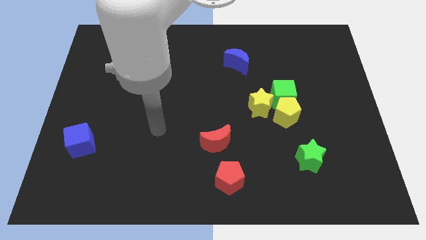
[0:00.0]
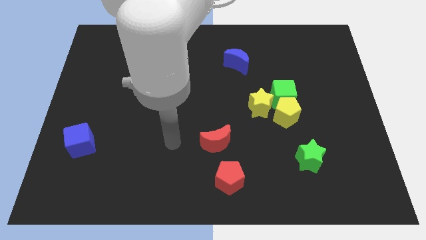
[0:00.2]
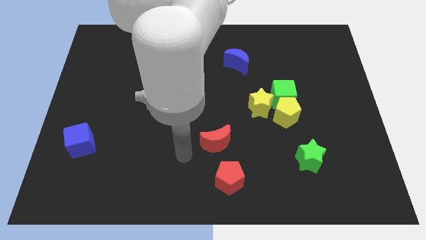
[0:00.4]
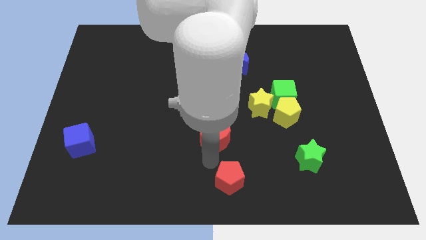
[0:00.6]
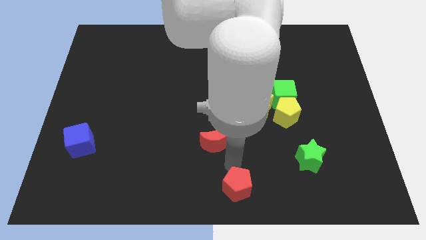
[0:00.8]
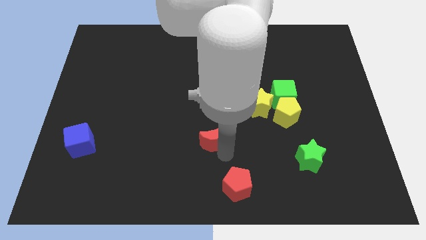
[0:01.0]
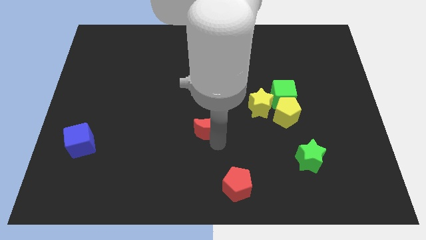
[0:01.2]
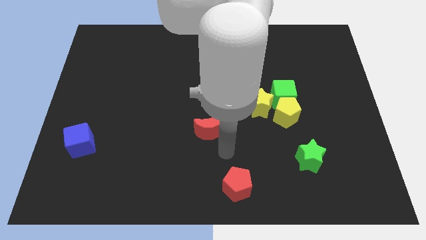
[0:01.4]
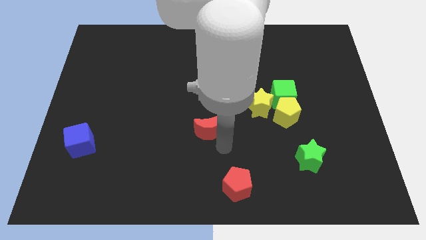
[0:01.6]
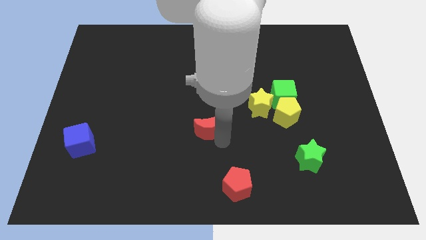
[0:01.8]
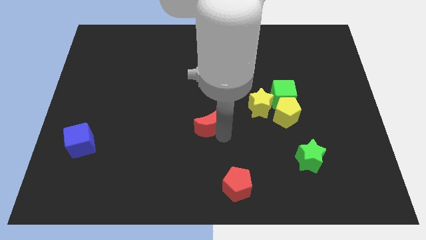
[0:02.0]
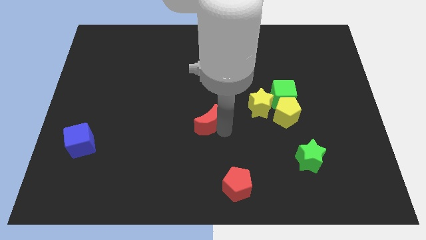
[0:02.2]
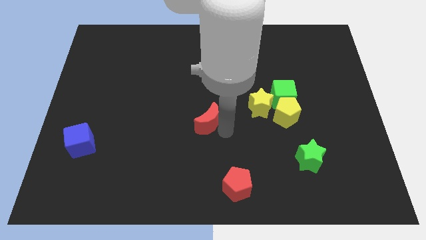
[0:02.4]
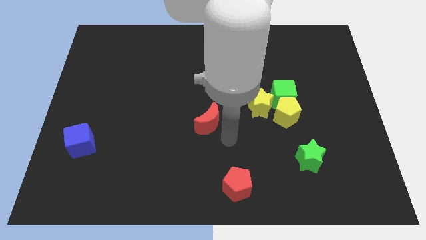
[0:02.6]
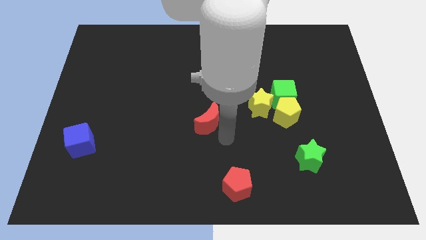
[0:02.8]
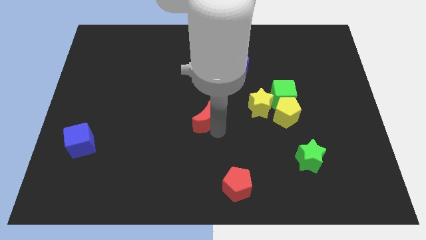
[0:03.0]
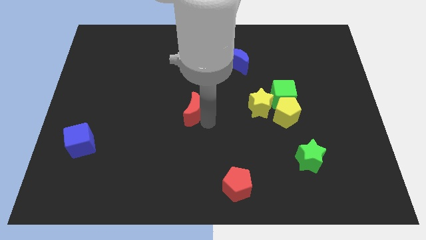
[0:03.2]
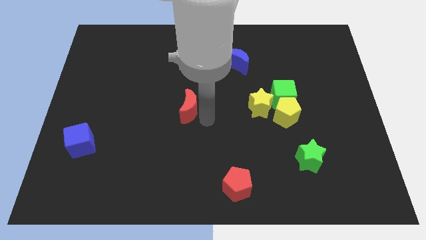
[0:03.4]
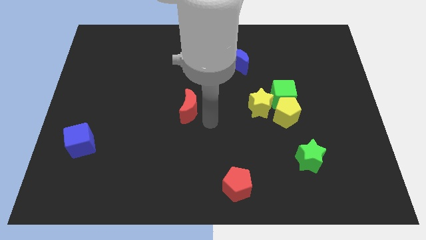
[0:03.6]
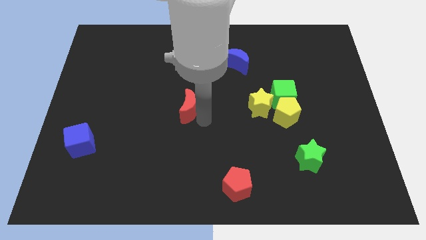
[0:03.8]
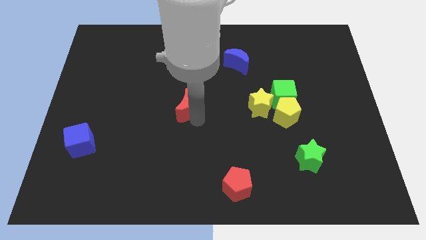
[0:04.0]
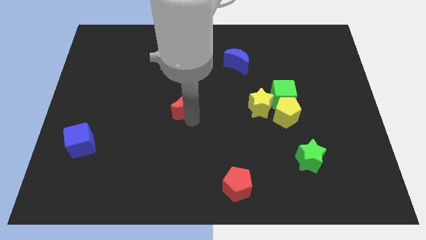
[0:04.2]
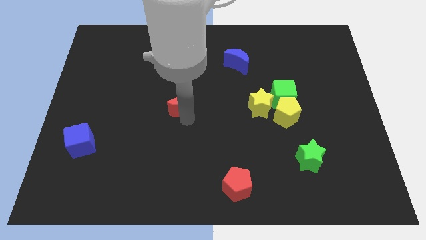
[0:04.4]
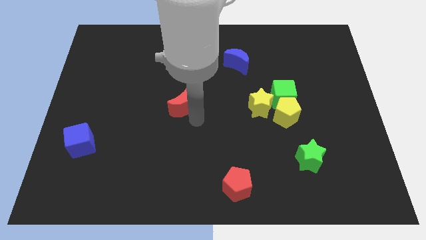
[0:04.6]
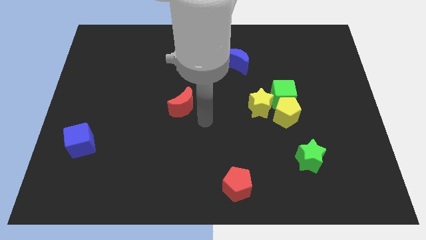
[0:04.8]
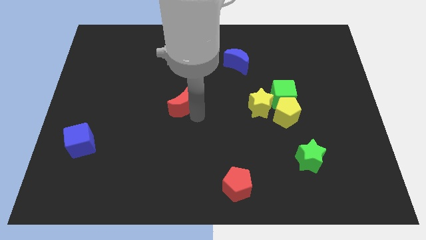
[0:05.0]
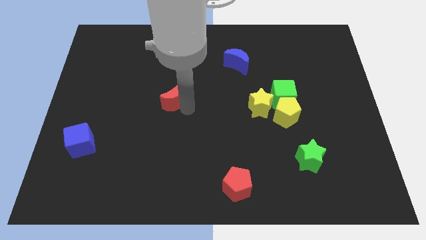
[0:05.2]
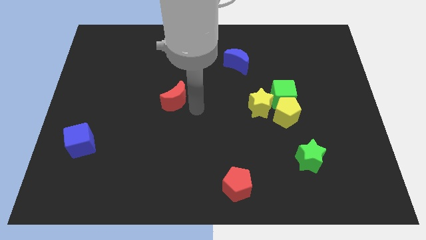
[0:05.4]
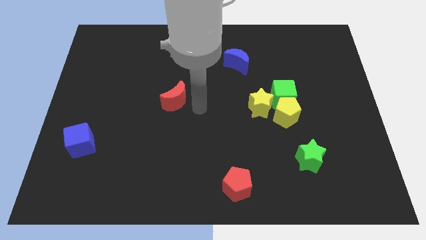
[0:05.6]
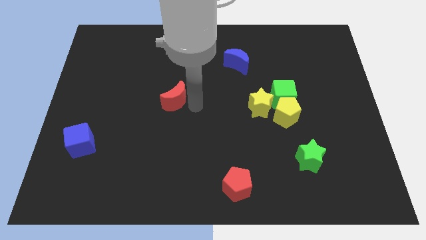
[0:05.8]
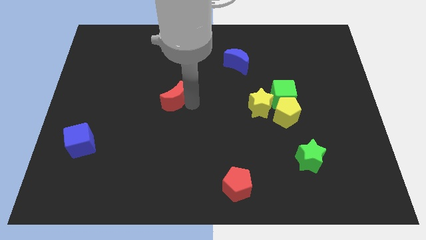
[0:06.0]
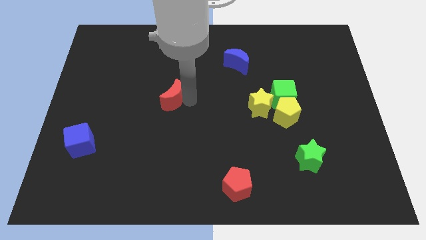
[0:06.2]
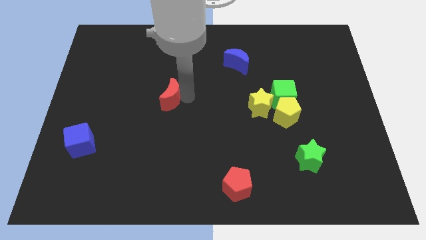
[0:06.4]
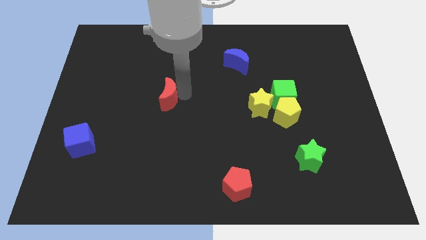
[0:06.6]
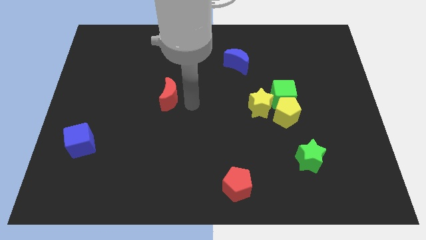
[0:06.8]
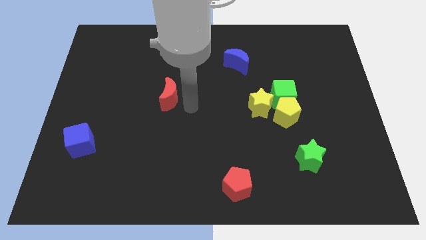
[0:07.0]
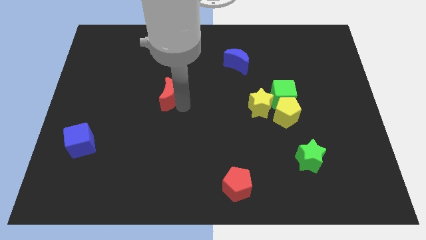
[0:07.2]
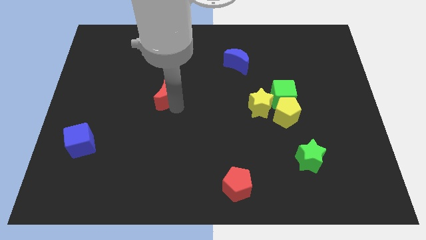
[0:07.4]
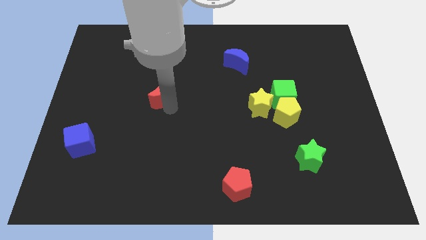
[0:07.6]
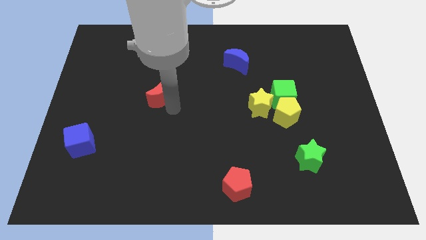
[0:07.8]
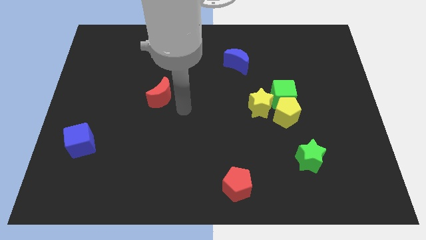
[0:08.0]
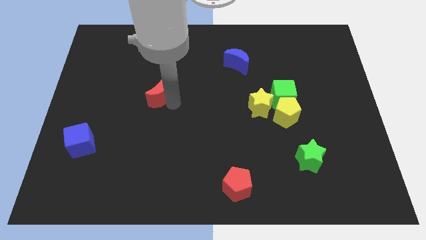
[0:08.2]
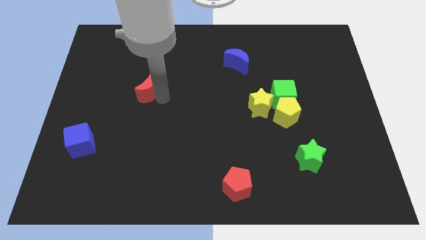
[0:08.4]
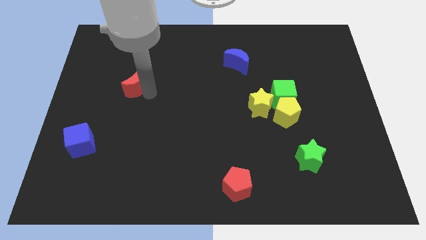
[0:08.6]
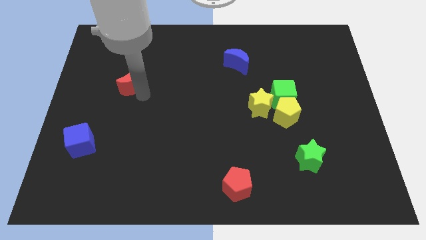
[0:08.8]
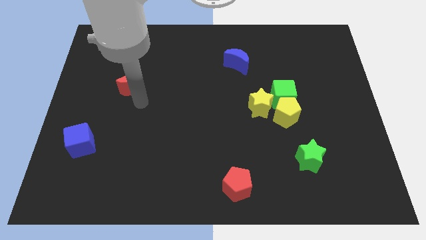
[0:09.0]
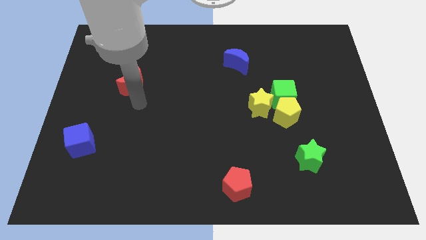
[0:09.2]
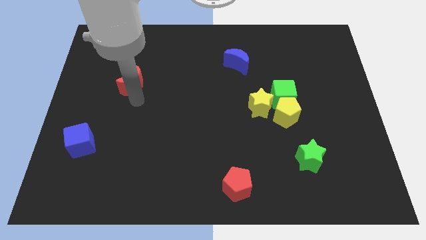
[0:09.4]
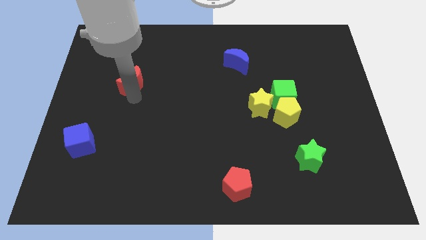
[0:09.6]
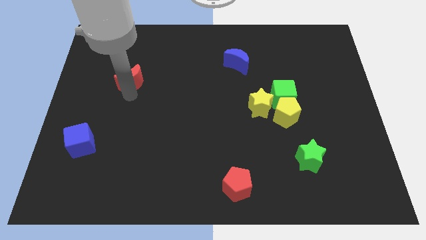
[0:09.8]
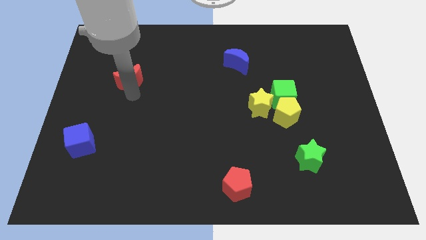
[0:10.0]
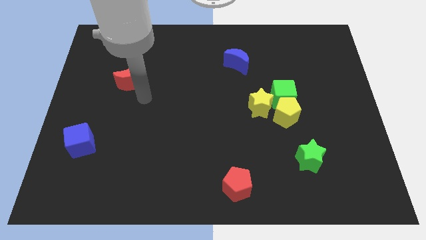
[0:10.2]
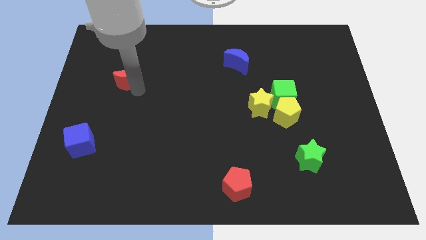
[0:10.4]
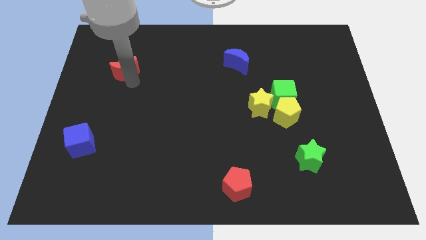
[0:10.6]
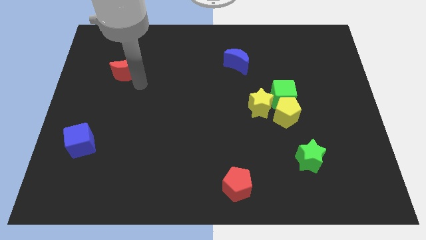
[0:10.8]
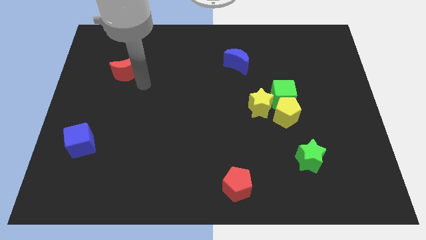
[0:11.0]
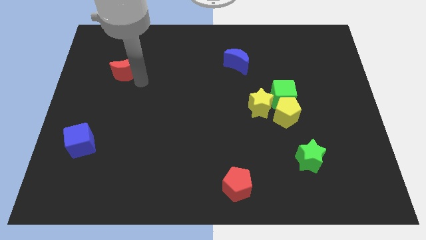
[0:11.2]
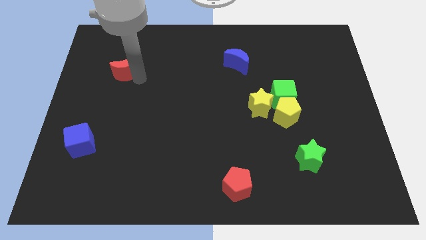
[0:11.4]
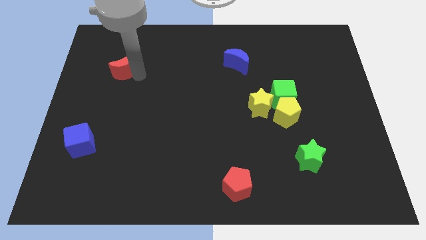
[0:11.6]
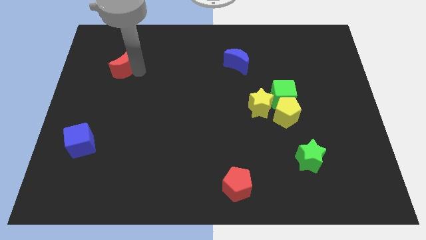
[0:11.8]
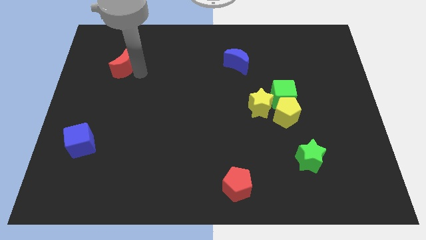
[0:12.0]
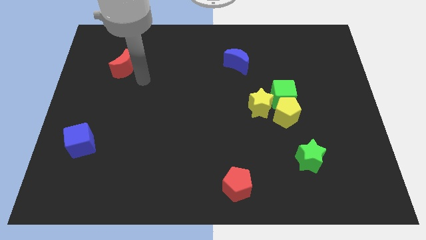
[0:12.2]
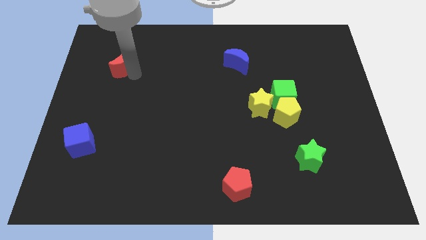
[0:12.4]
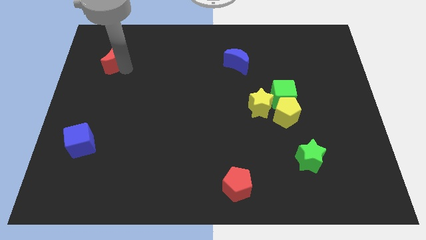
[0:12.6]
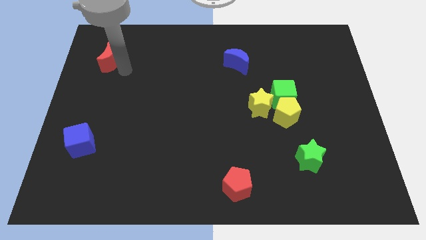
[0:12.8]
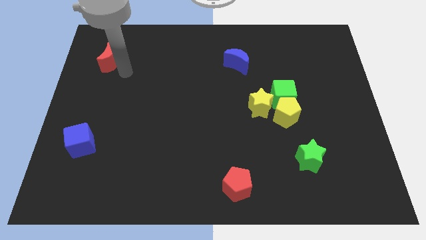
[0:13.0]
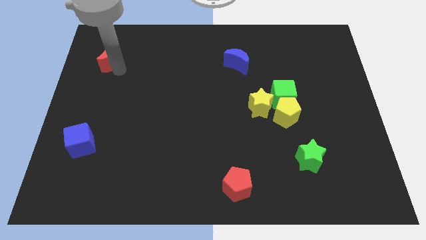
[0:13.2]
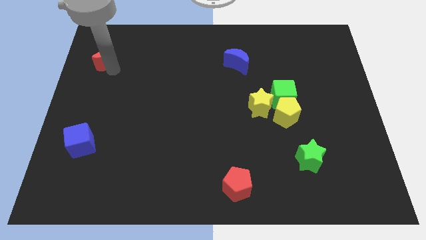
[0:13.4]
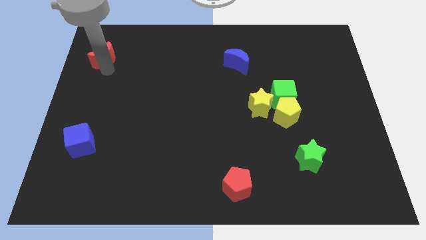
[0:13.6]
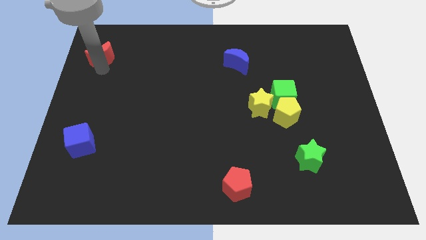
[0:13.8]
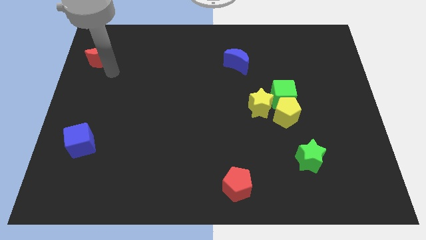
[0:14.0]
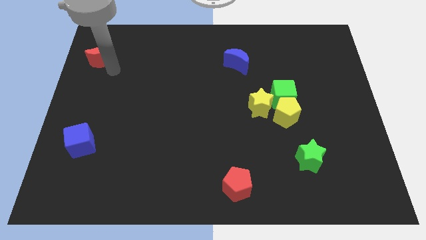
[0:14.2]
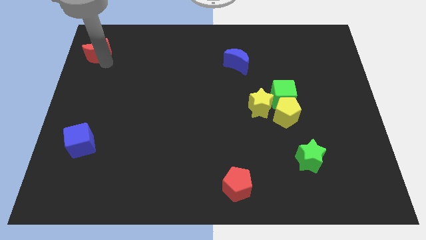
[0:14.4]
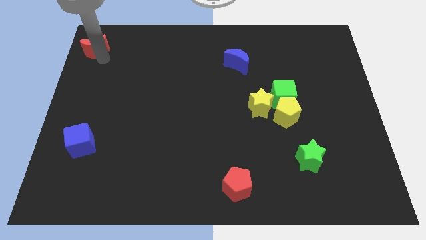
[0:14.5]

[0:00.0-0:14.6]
move the red moon to the upper left corner
